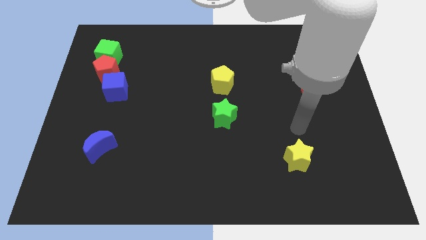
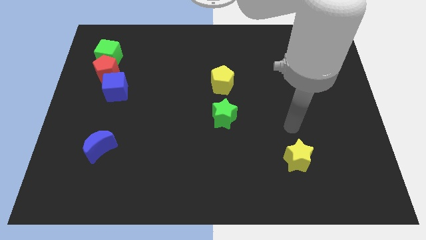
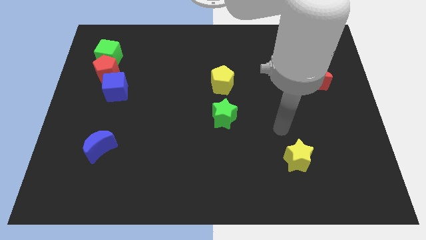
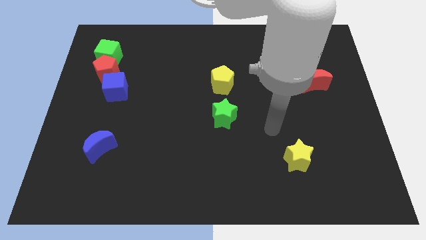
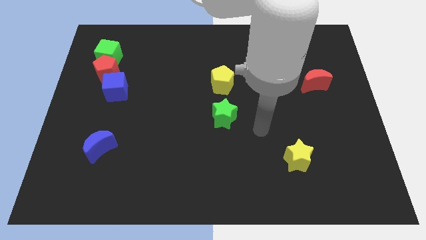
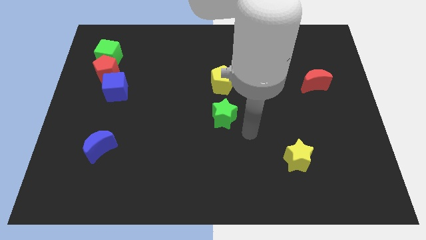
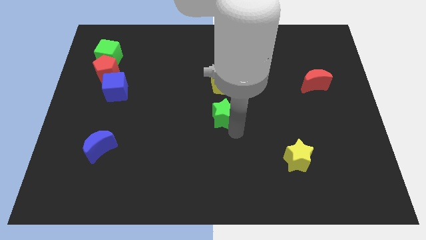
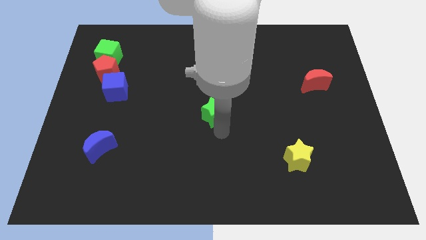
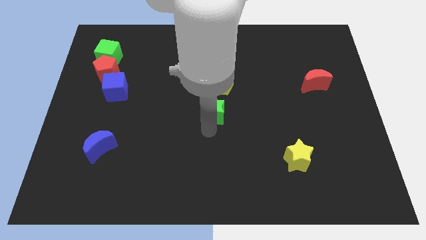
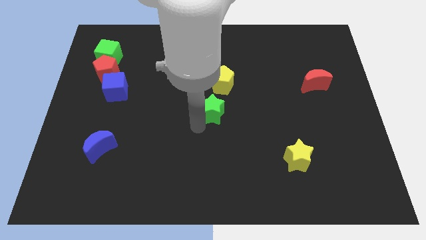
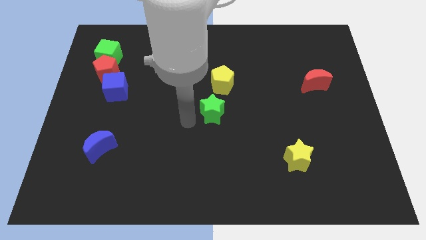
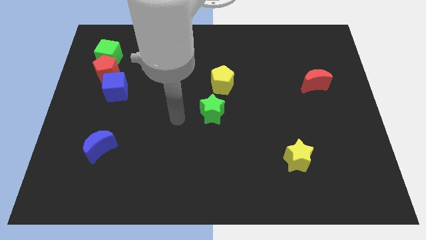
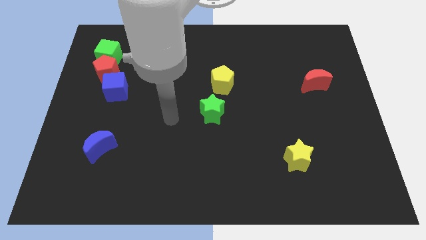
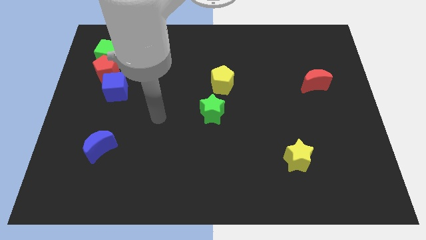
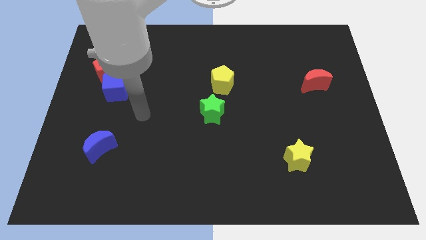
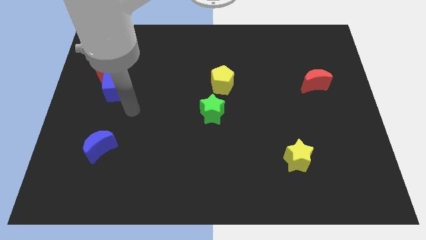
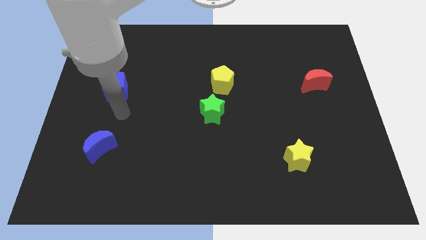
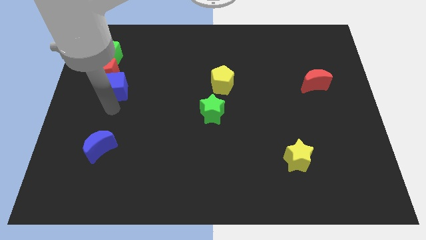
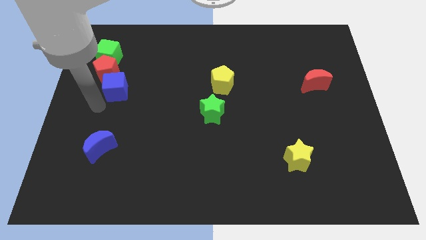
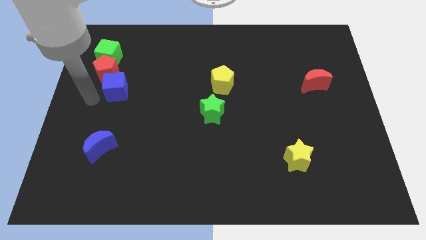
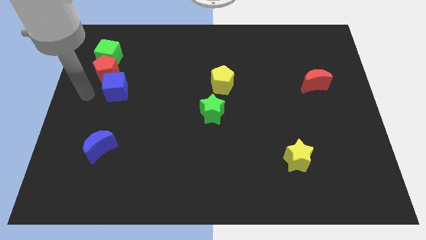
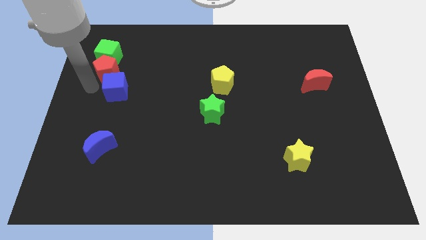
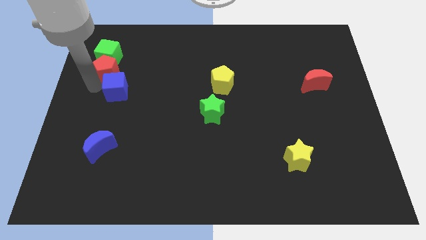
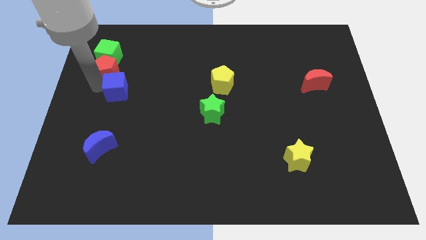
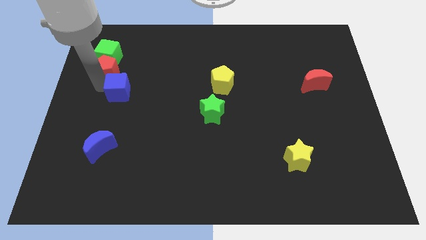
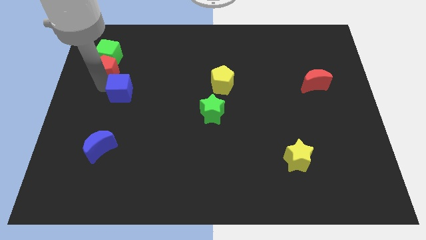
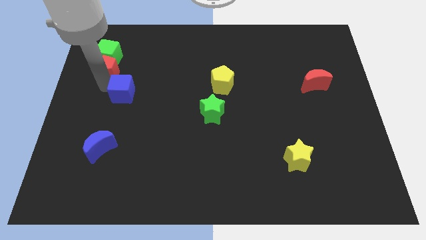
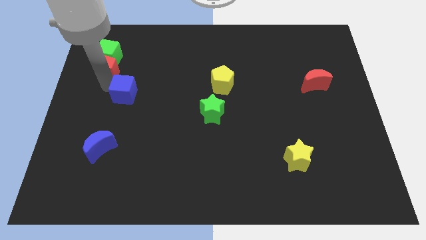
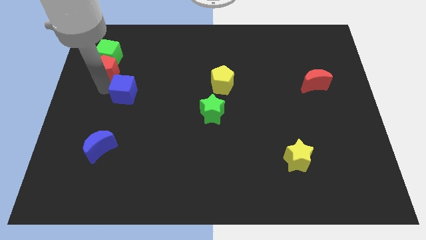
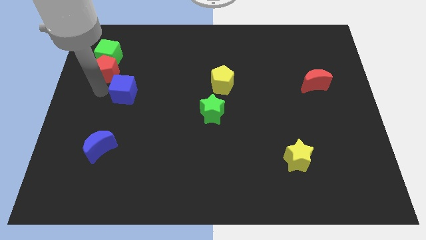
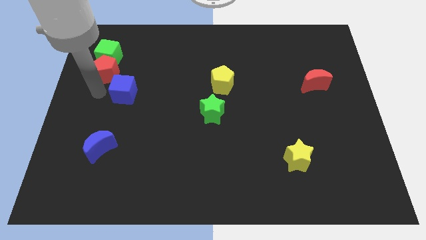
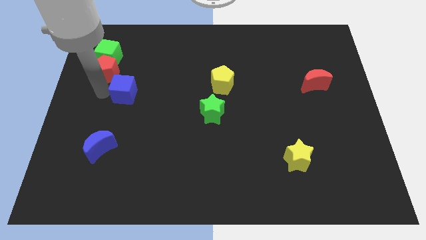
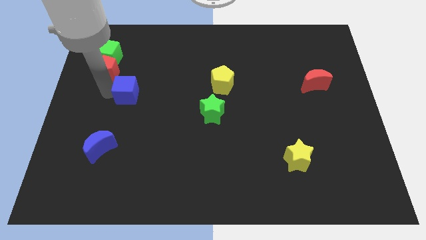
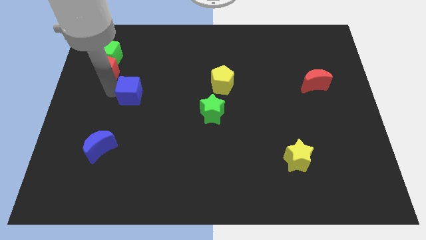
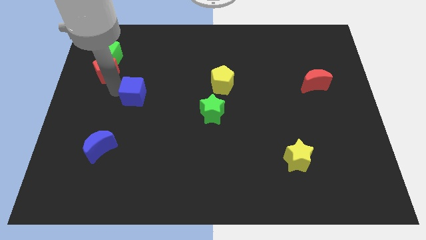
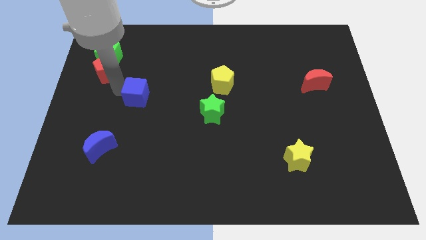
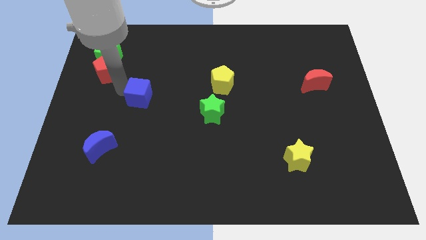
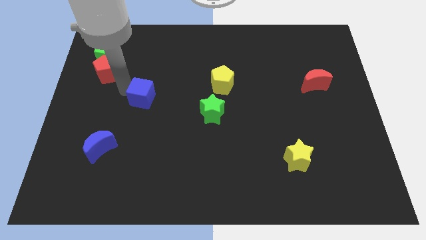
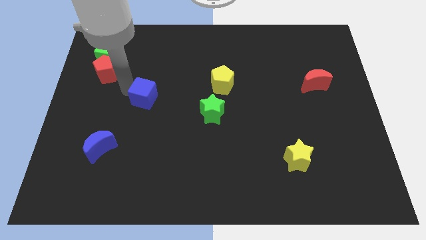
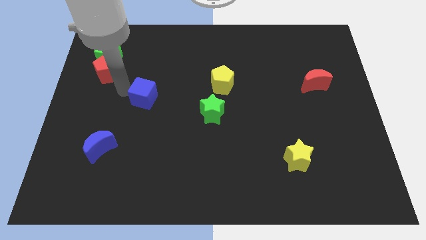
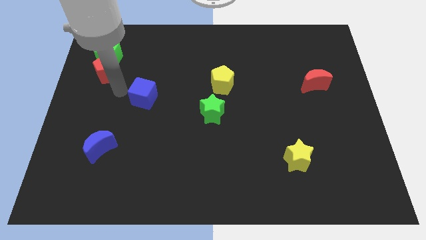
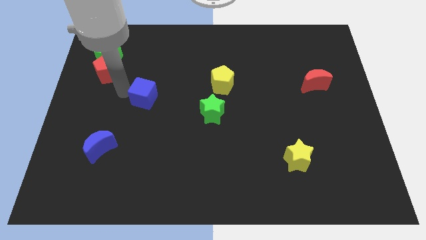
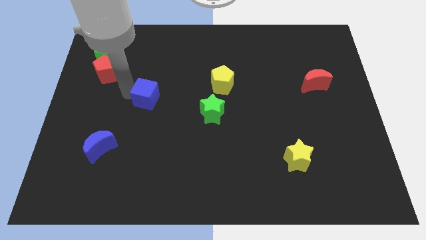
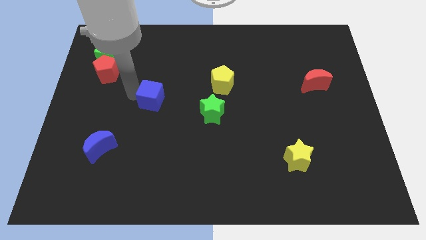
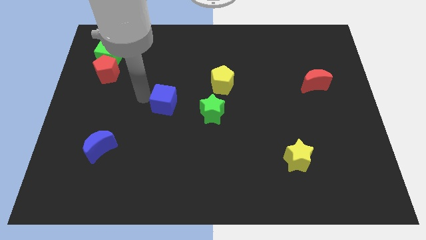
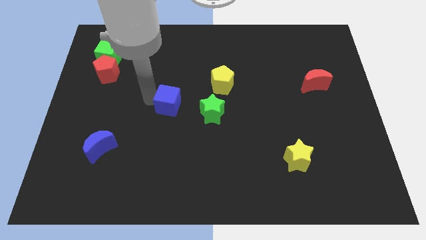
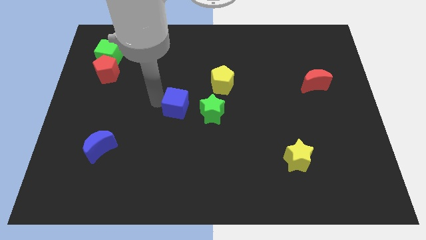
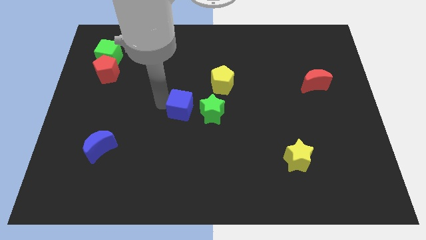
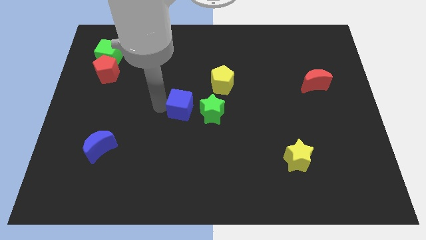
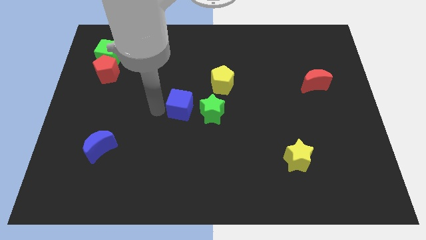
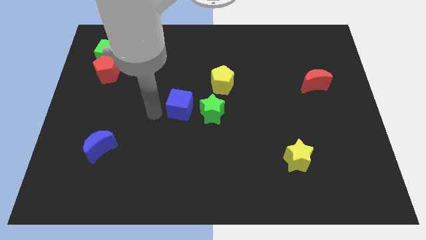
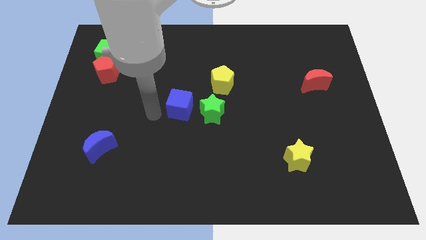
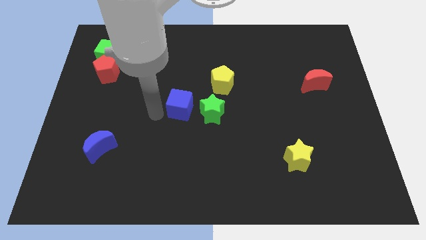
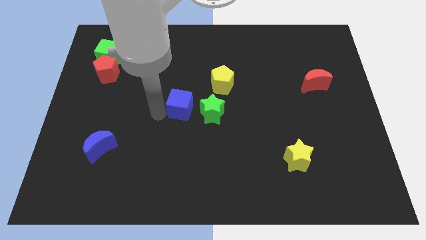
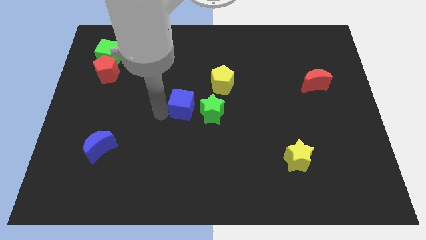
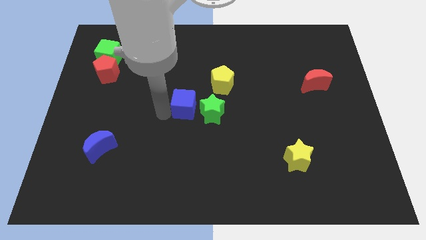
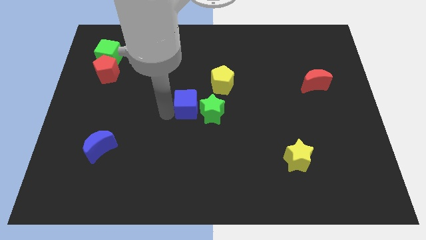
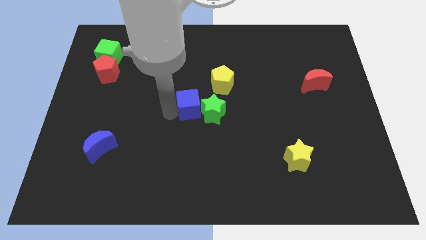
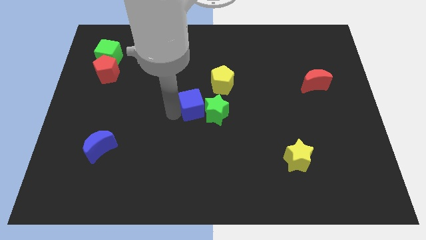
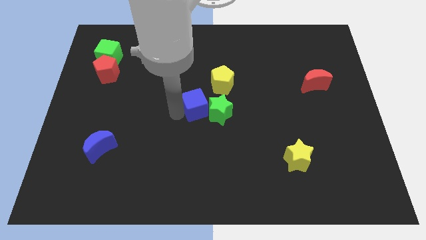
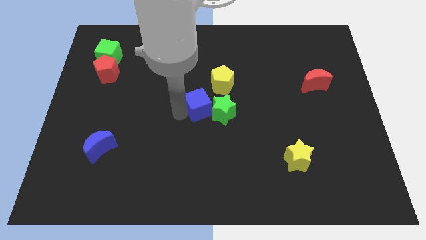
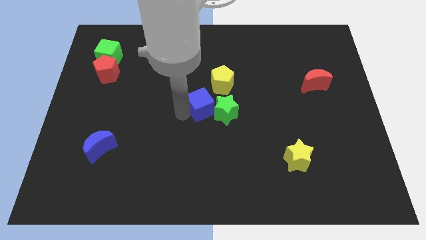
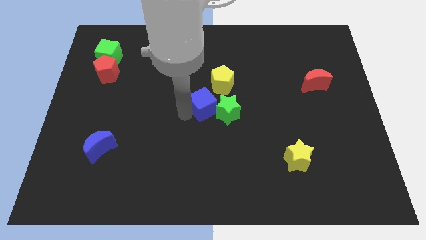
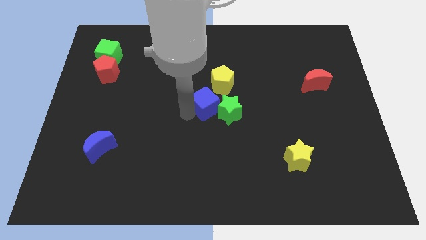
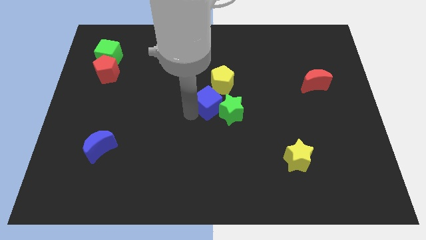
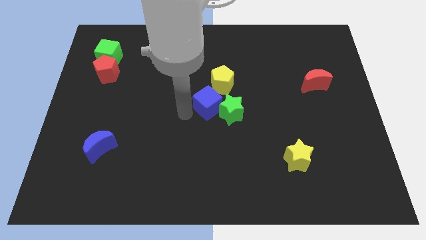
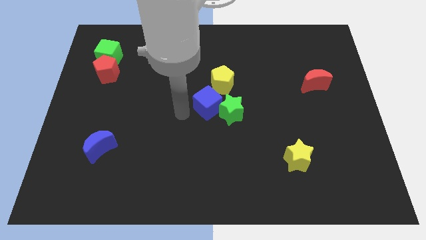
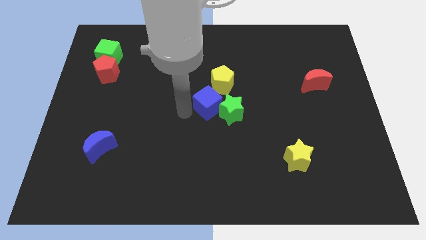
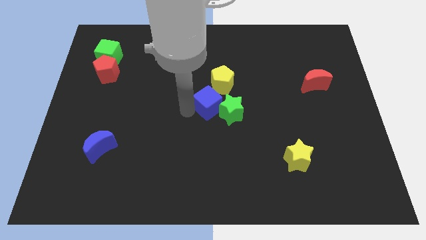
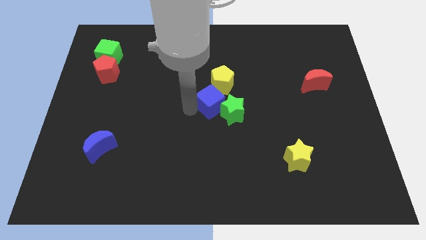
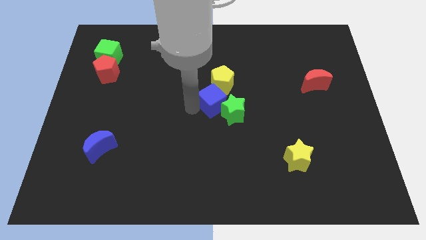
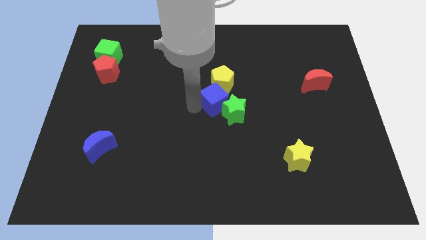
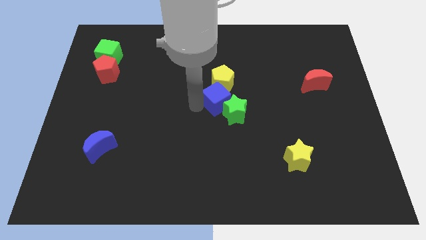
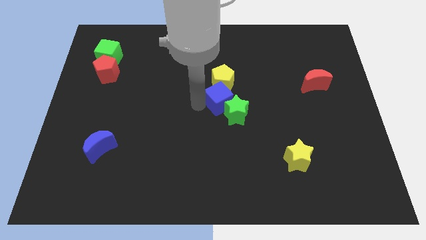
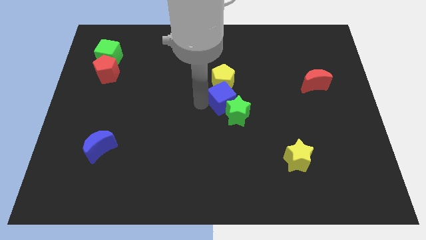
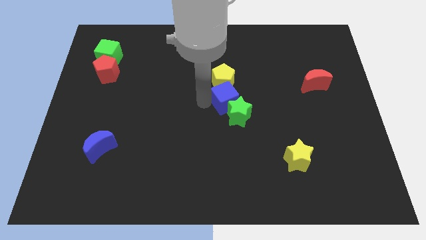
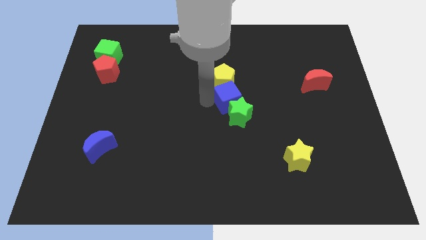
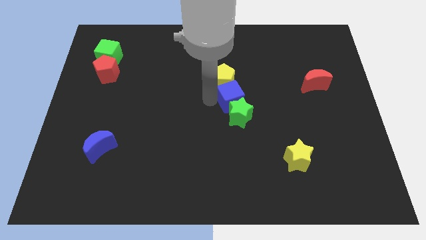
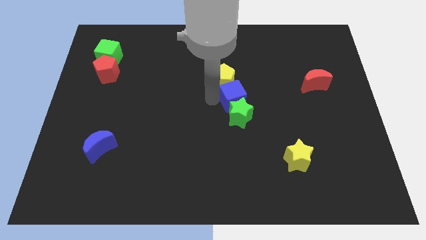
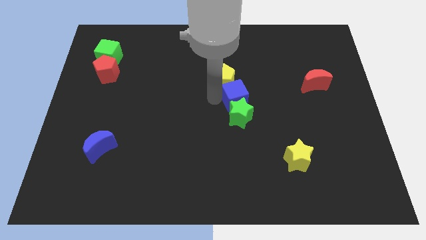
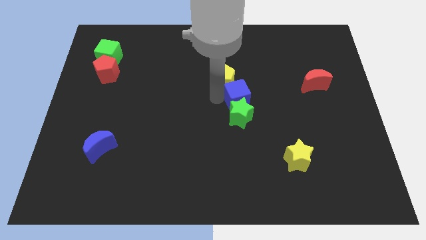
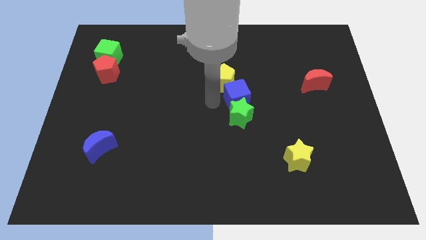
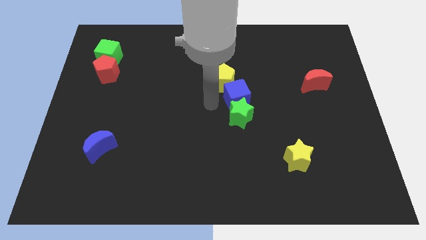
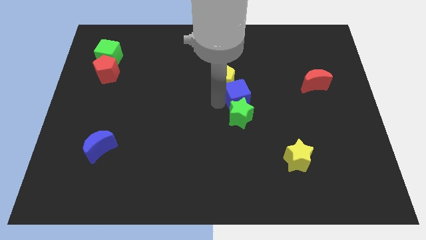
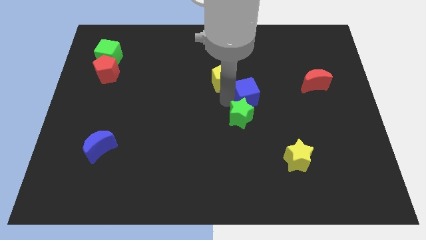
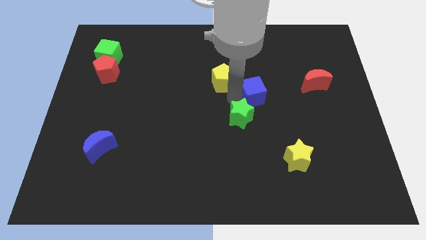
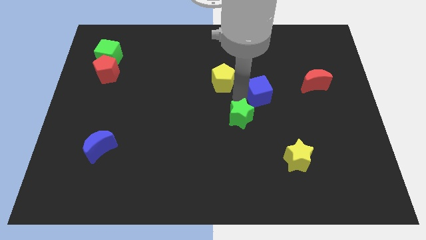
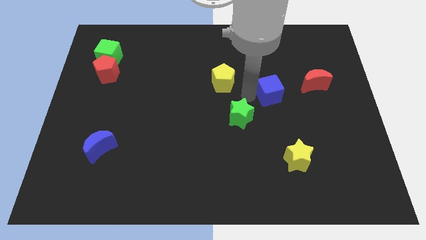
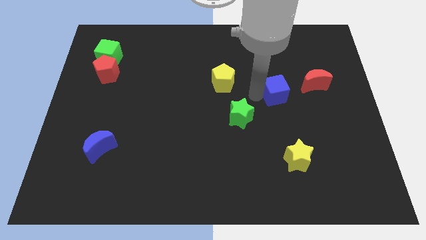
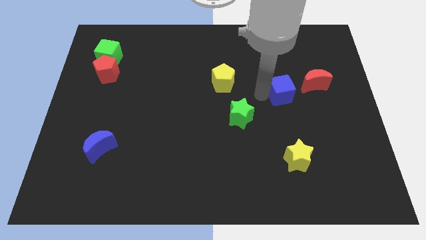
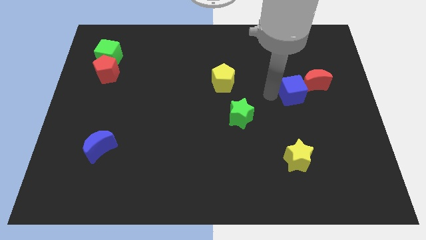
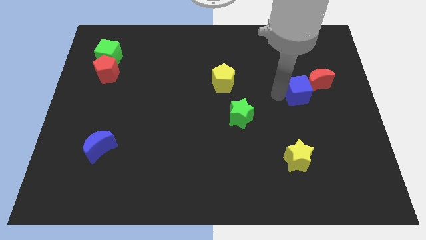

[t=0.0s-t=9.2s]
move the blue cube close to the red moon
